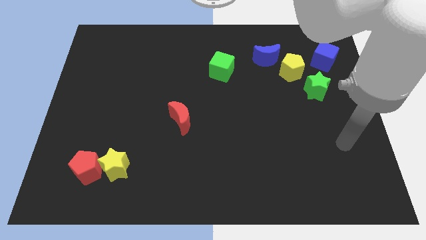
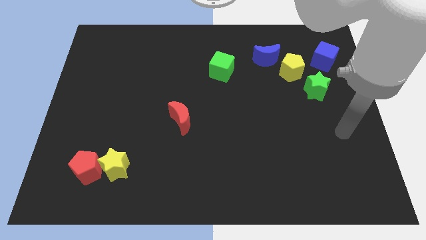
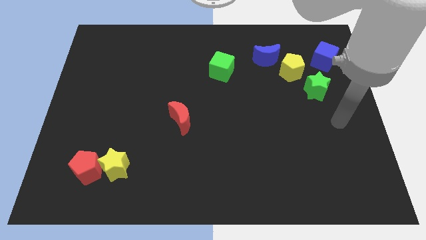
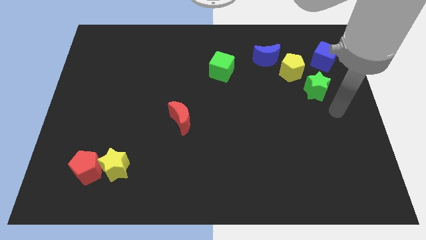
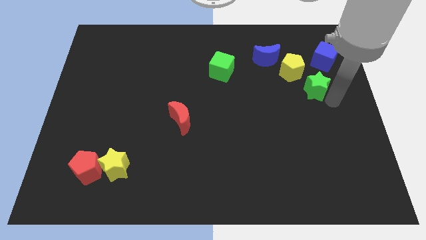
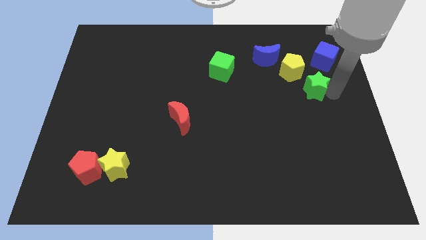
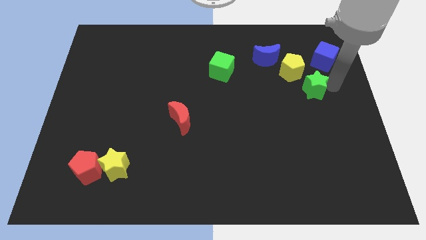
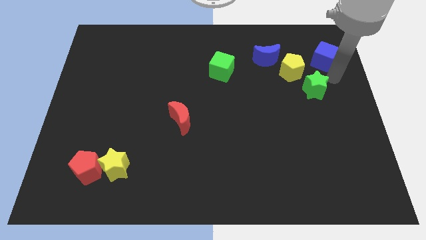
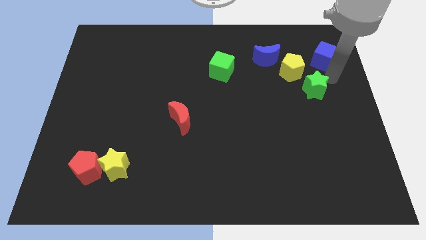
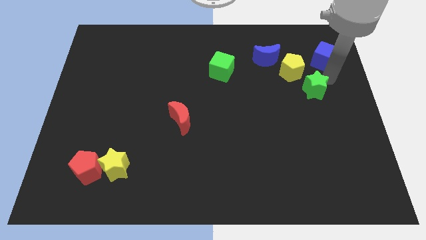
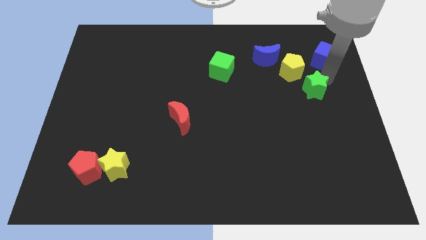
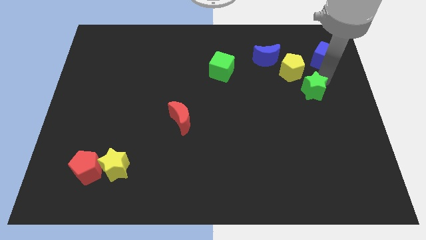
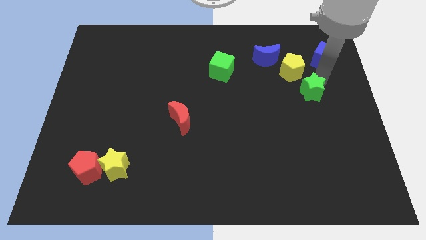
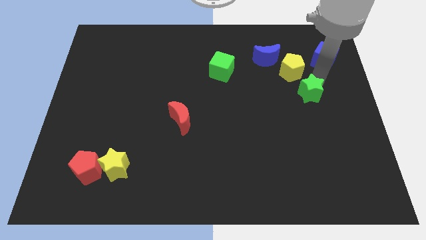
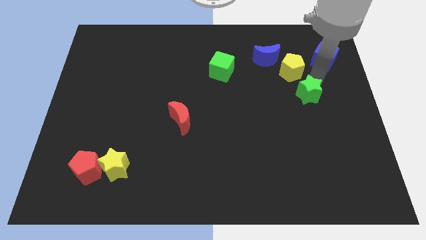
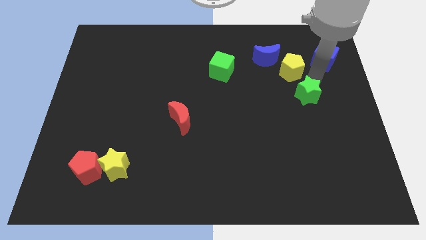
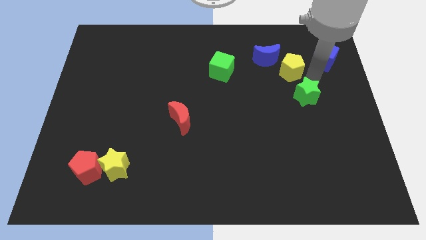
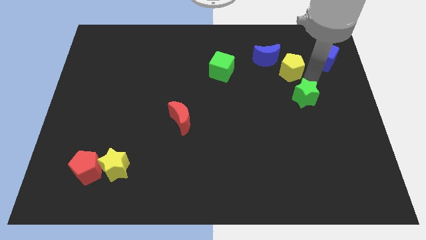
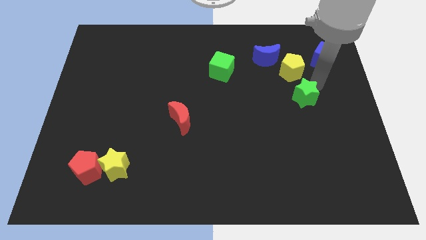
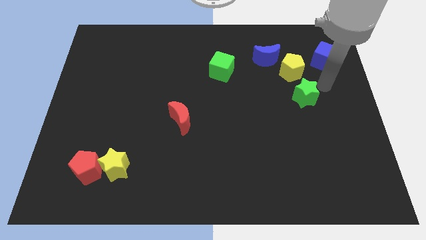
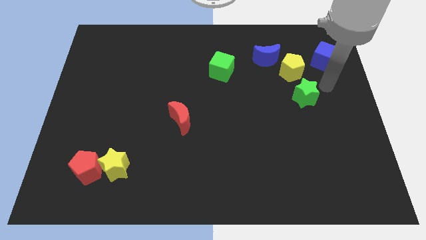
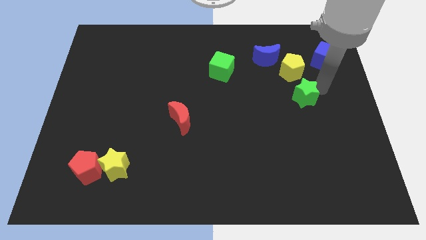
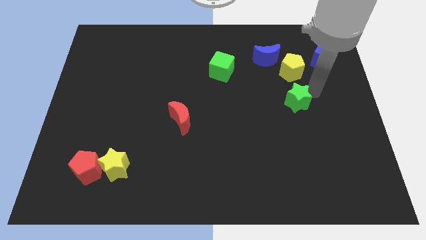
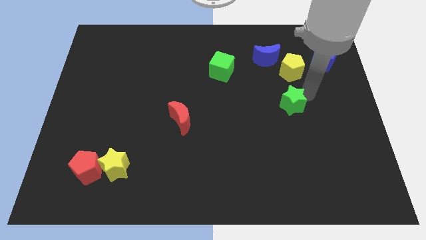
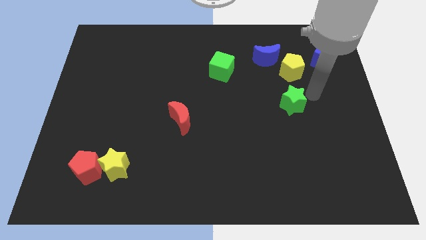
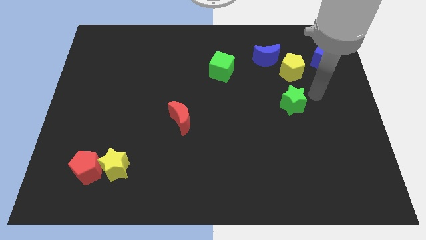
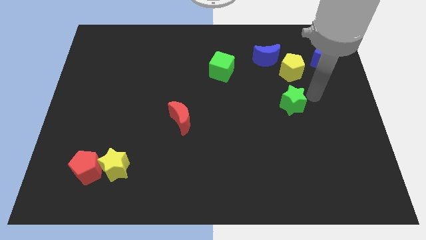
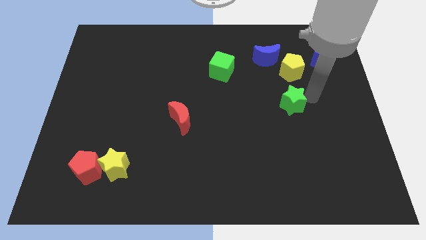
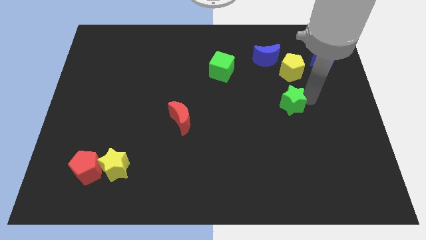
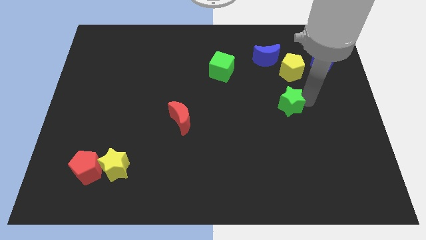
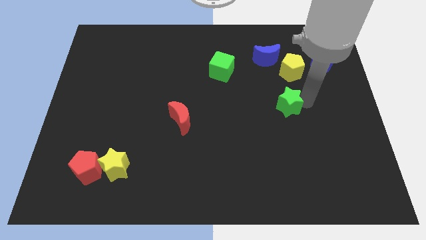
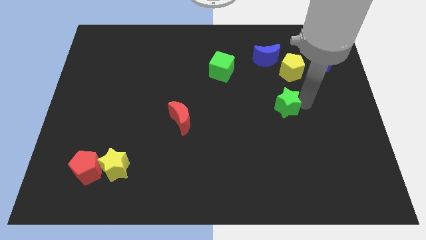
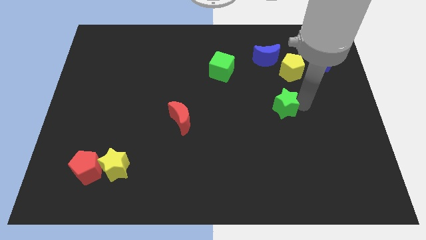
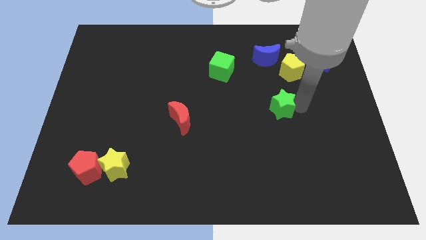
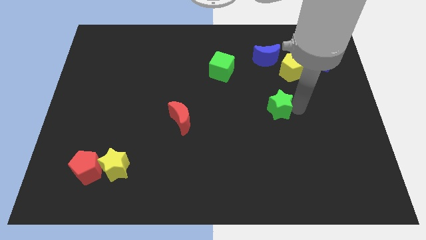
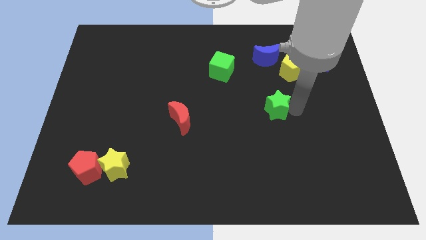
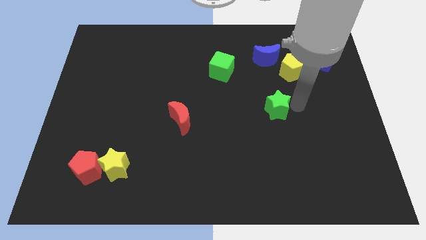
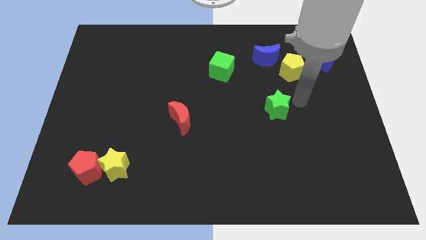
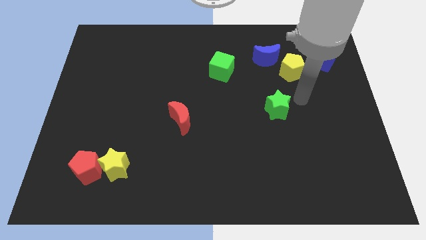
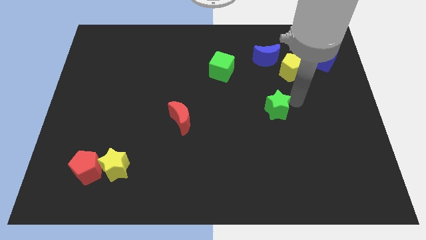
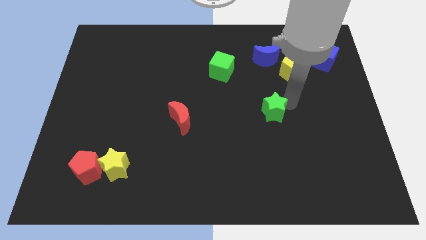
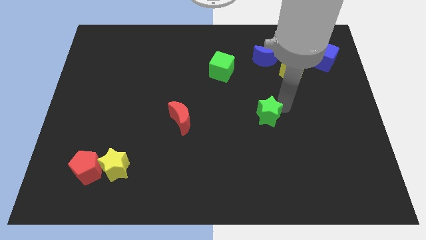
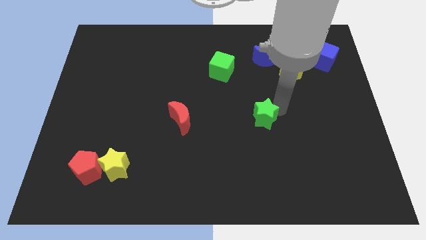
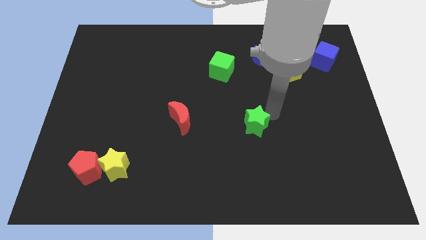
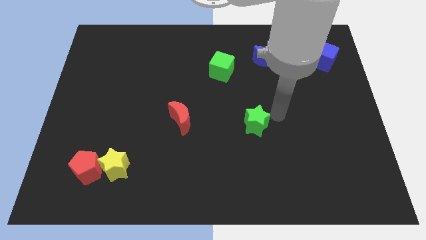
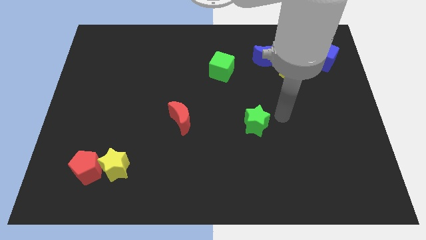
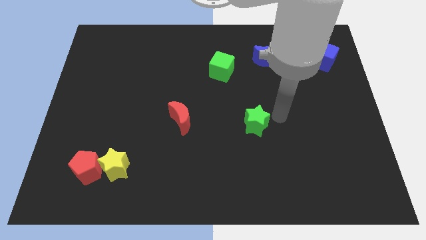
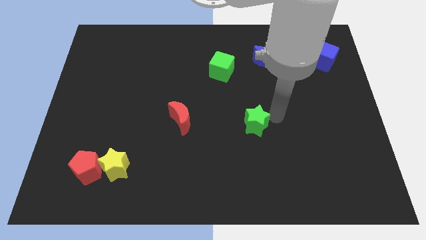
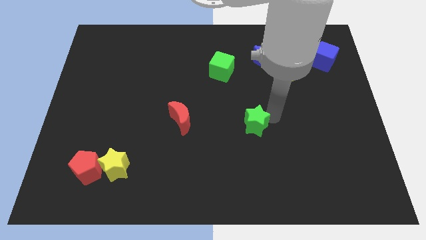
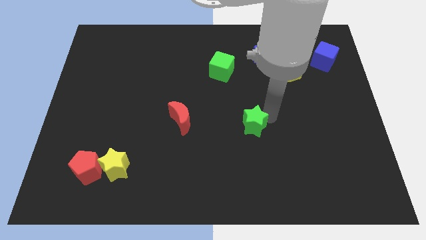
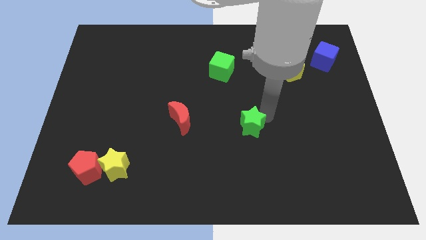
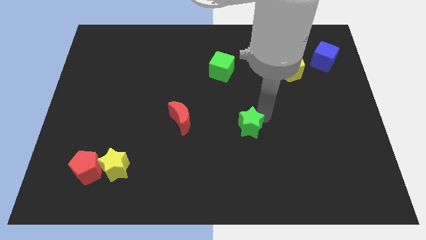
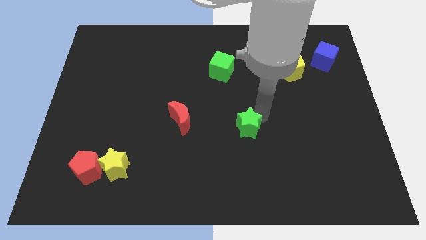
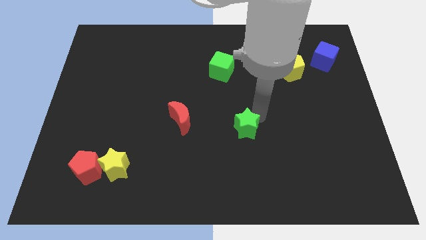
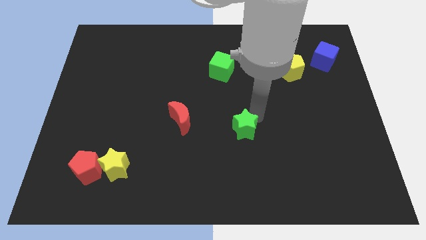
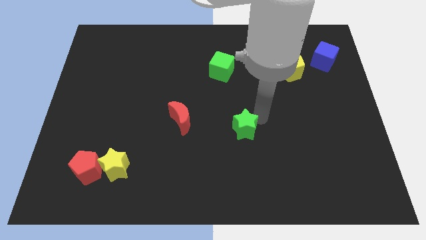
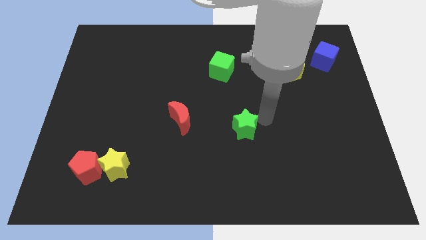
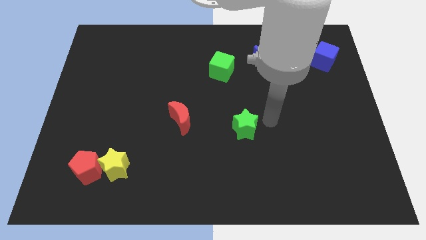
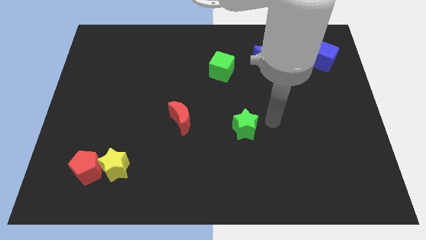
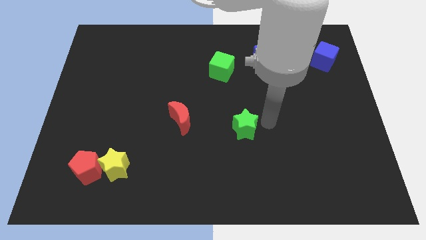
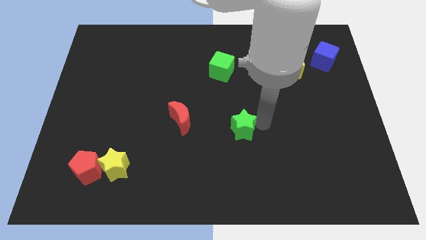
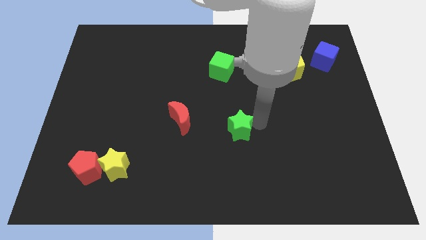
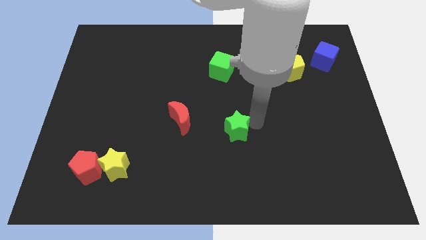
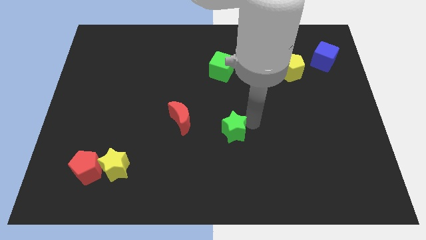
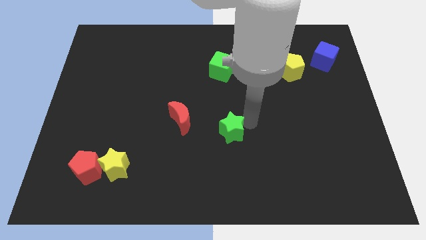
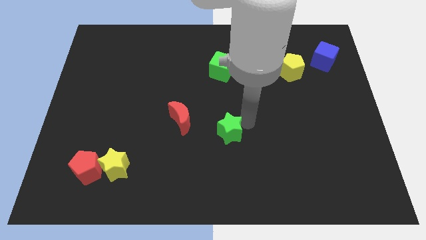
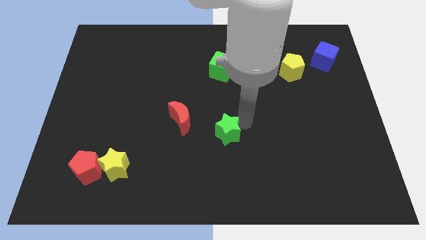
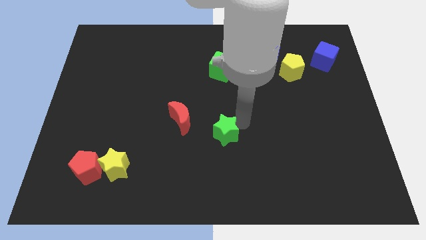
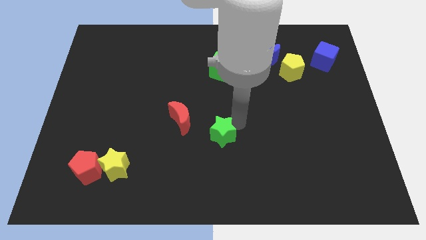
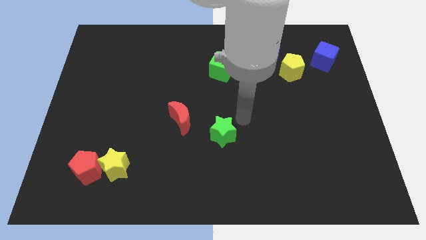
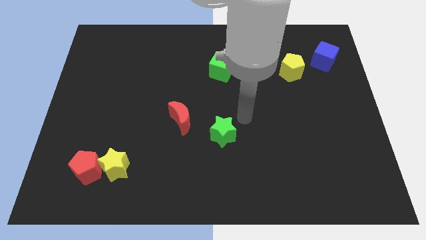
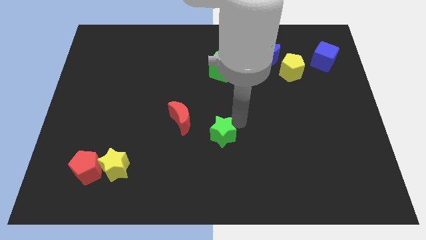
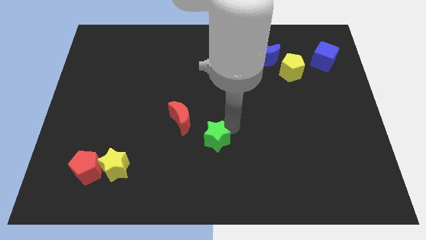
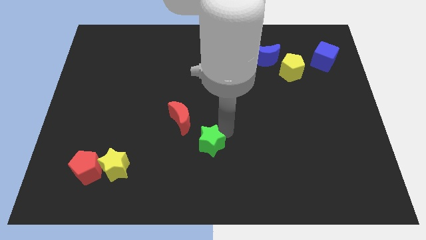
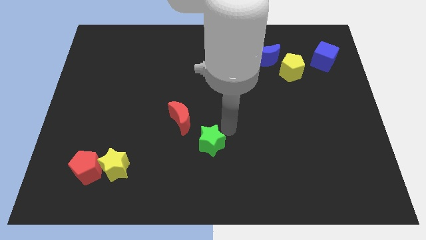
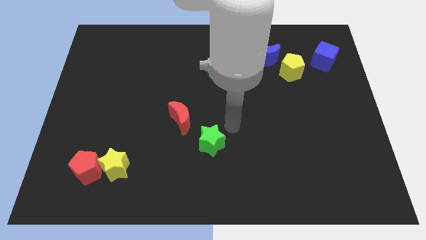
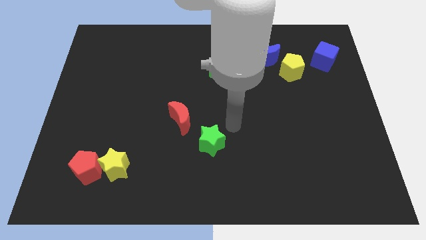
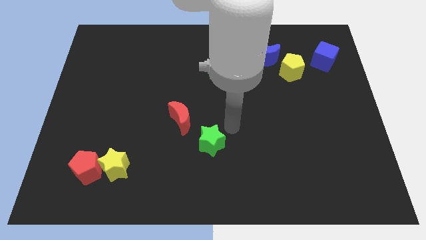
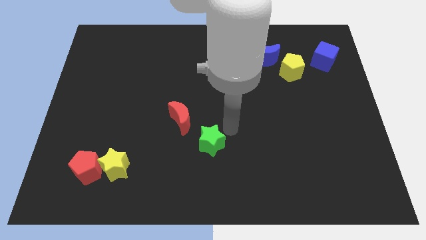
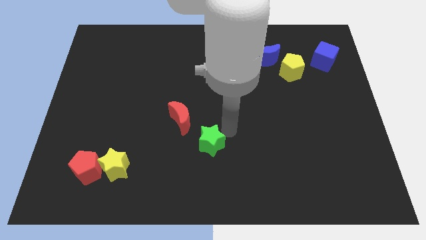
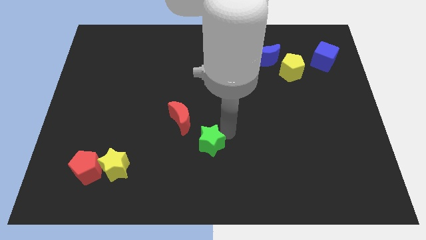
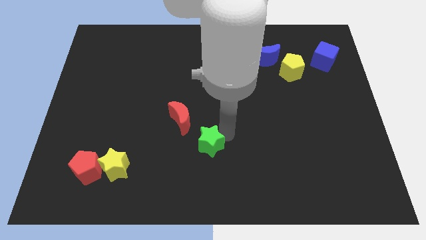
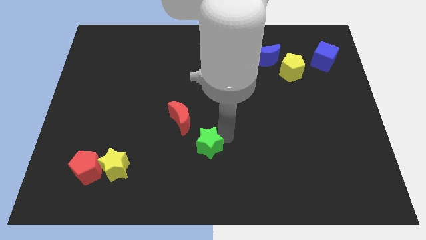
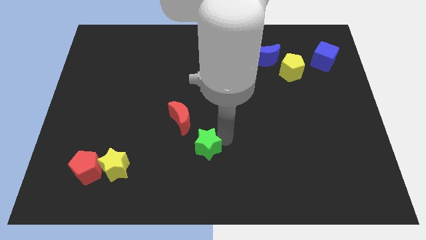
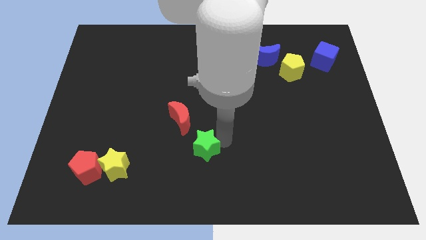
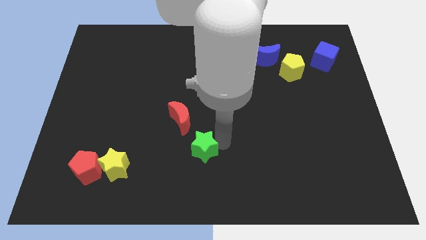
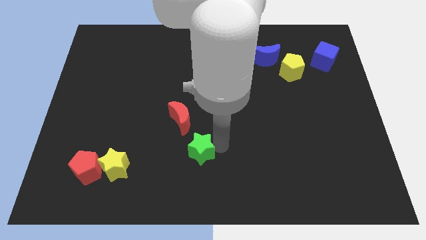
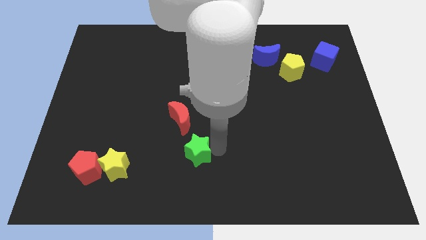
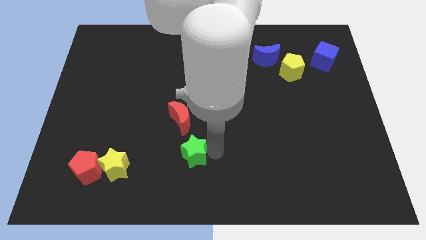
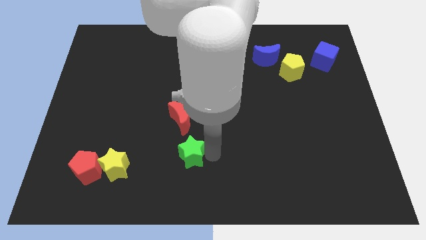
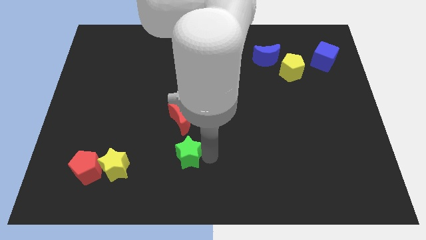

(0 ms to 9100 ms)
push the green star just right of the yellow star
